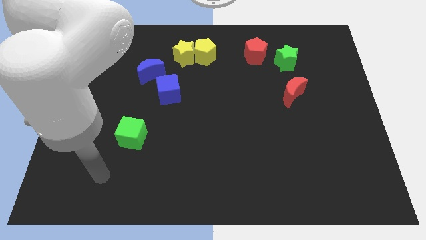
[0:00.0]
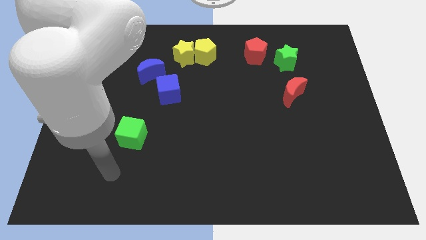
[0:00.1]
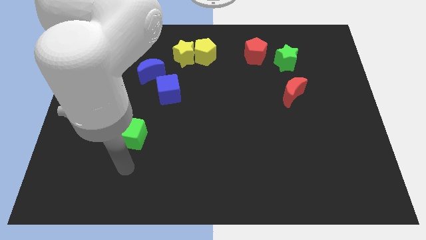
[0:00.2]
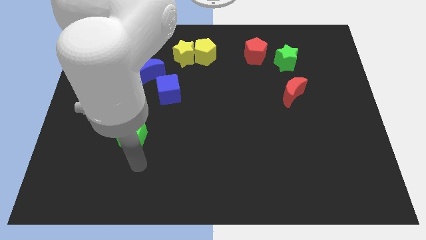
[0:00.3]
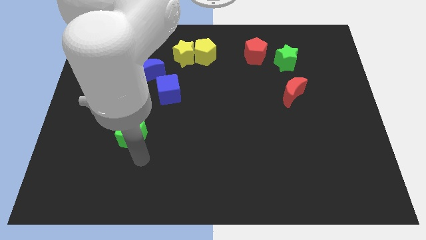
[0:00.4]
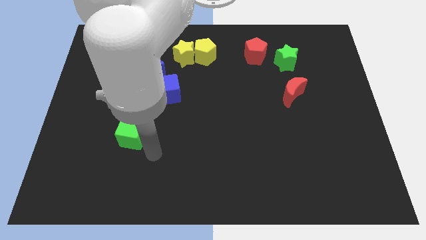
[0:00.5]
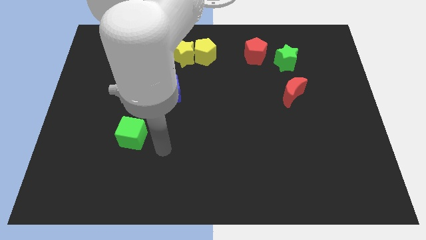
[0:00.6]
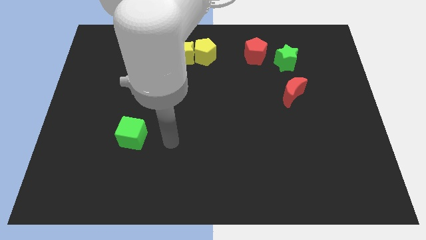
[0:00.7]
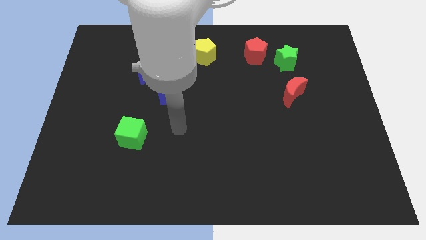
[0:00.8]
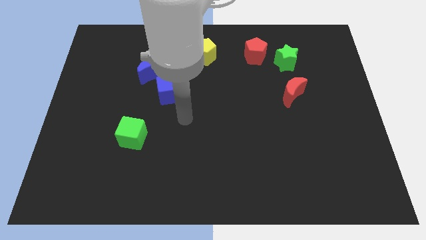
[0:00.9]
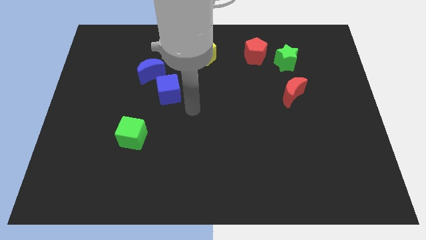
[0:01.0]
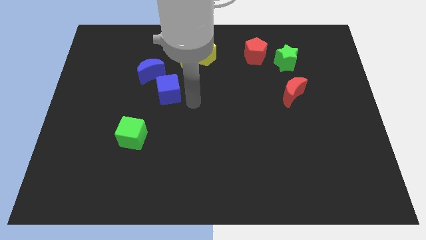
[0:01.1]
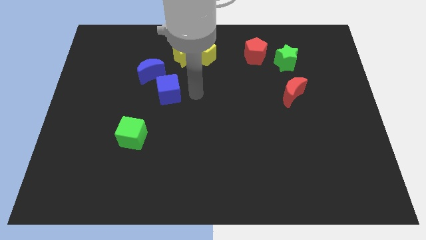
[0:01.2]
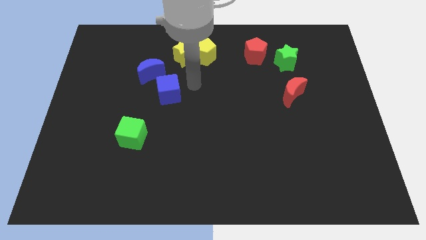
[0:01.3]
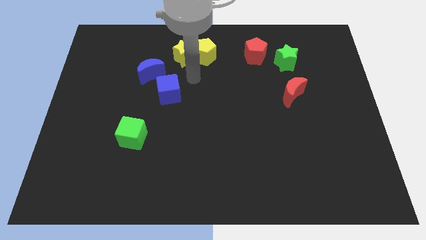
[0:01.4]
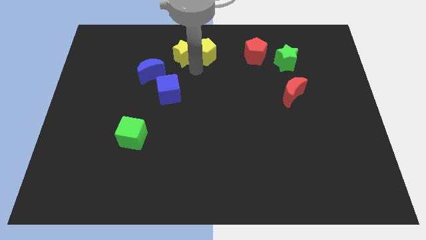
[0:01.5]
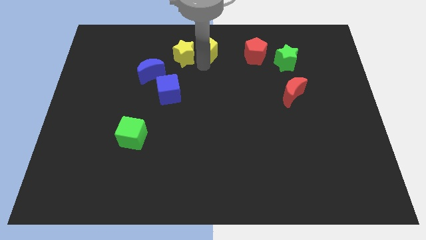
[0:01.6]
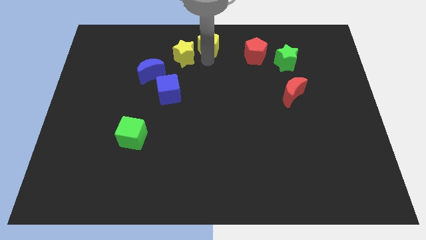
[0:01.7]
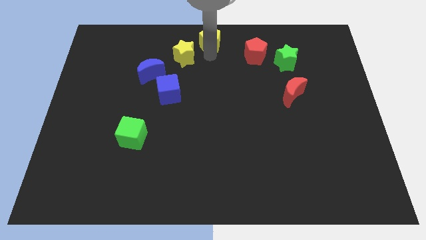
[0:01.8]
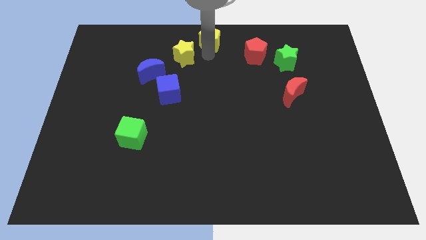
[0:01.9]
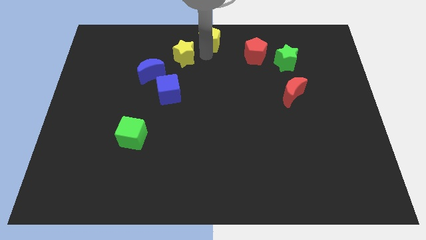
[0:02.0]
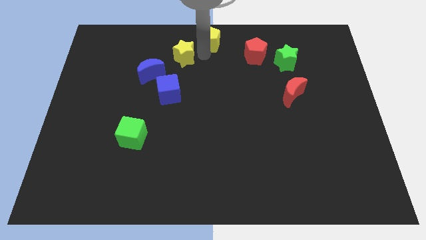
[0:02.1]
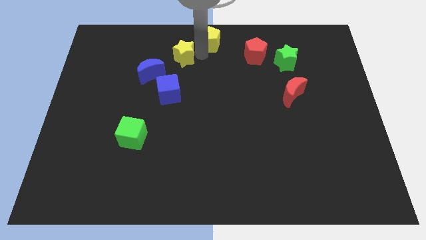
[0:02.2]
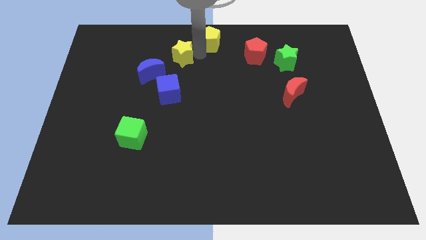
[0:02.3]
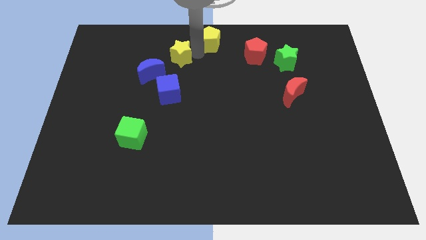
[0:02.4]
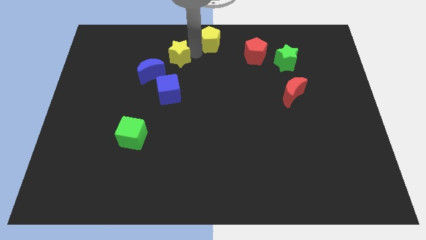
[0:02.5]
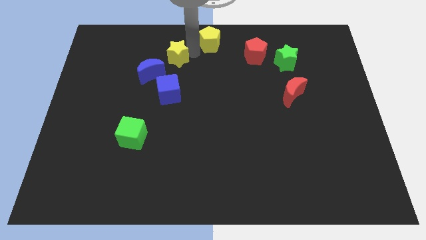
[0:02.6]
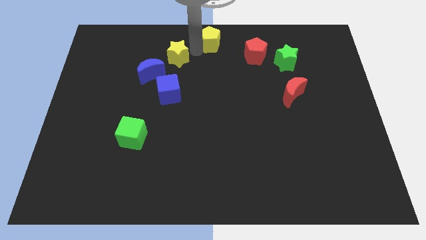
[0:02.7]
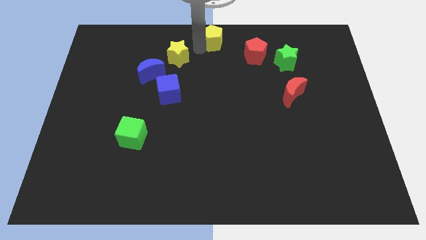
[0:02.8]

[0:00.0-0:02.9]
pull the yellow star apart from the yellow pentagon

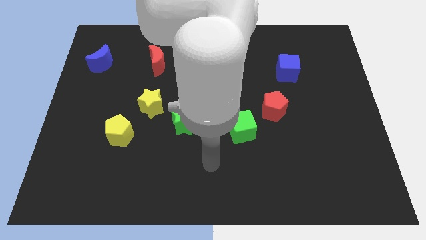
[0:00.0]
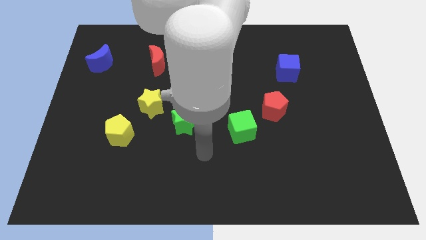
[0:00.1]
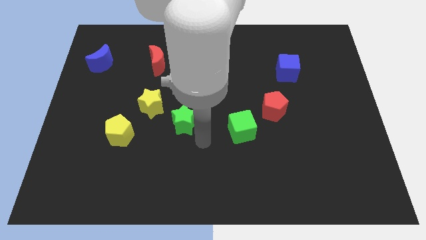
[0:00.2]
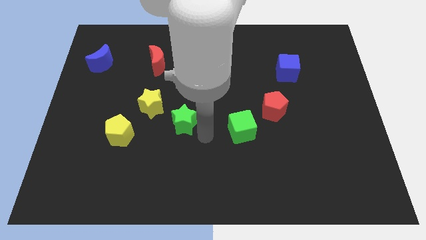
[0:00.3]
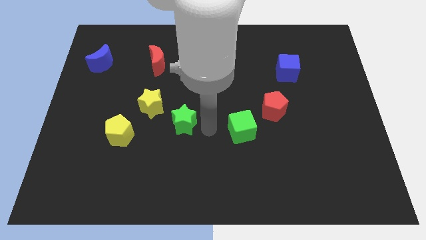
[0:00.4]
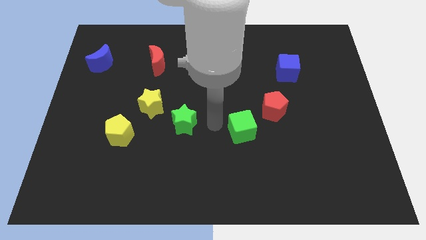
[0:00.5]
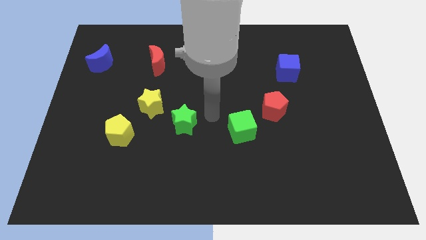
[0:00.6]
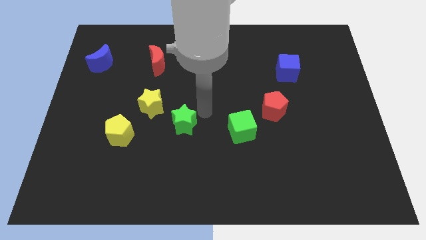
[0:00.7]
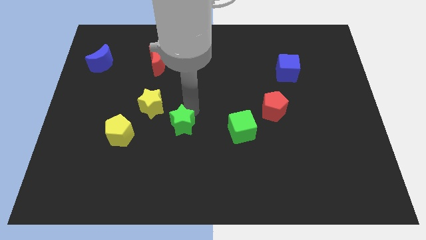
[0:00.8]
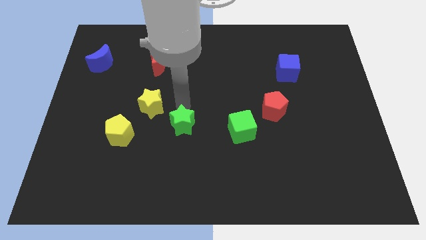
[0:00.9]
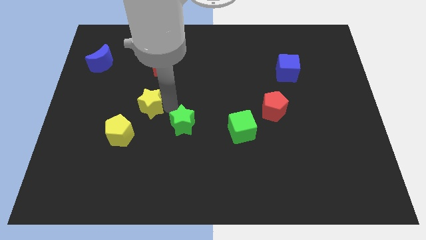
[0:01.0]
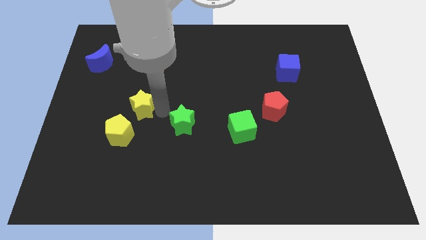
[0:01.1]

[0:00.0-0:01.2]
pull the green star apart from the yellow star

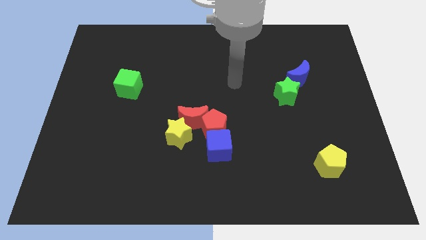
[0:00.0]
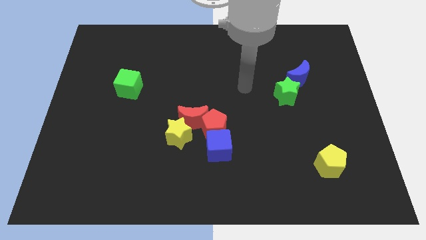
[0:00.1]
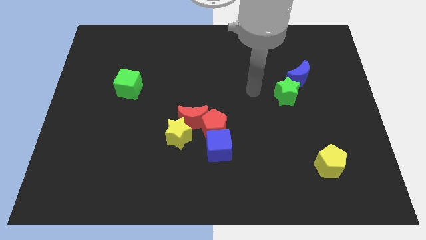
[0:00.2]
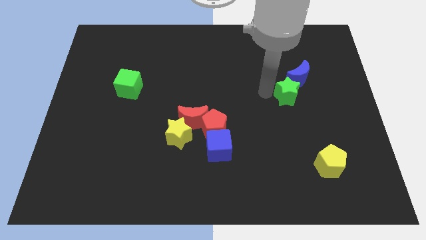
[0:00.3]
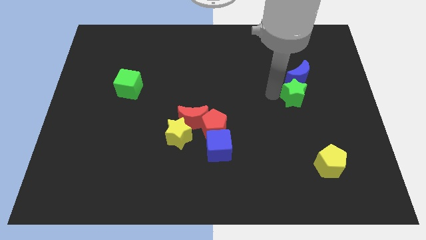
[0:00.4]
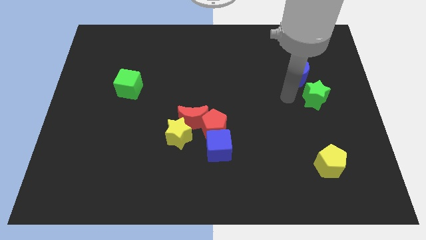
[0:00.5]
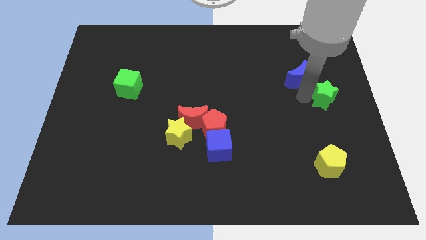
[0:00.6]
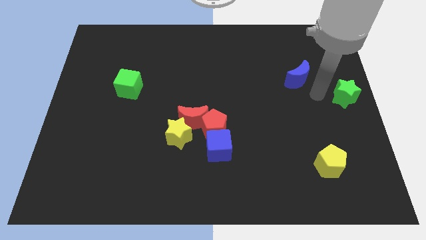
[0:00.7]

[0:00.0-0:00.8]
move the blue moon away from the green star

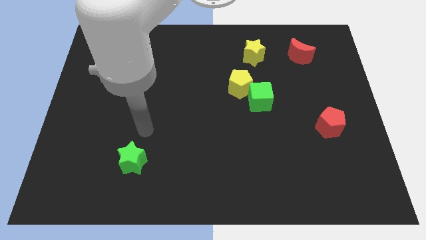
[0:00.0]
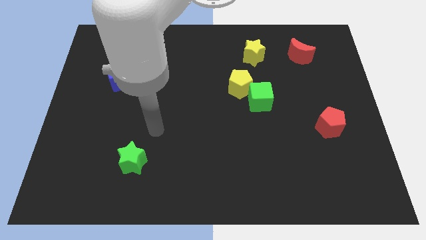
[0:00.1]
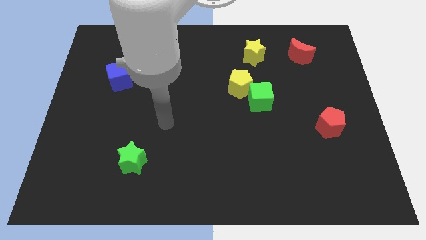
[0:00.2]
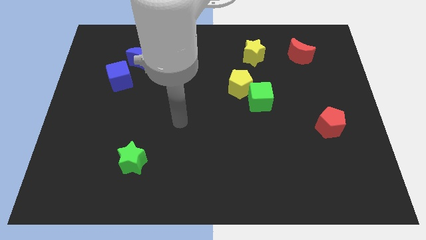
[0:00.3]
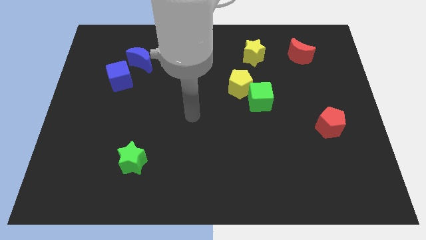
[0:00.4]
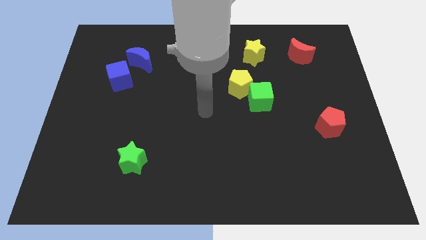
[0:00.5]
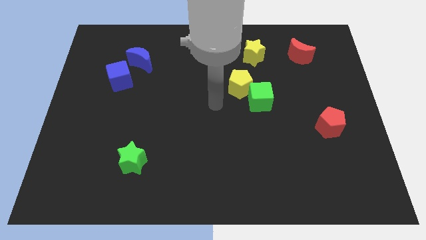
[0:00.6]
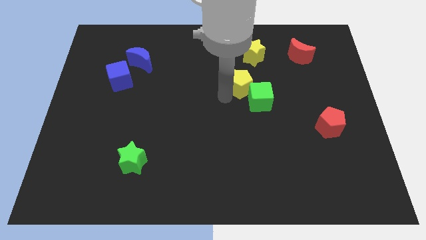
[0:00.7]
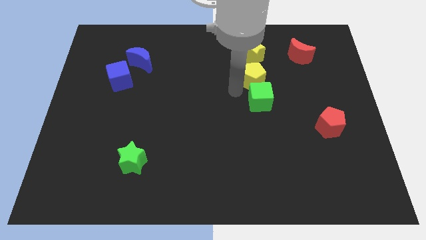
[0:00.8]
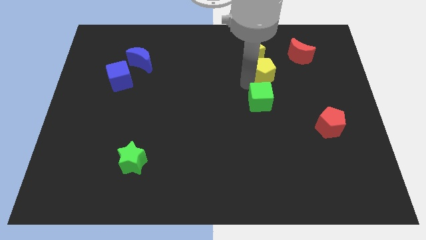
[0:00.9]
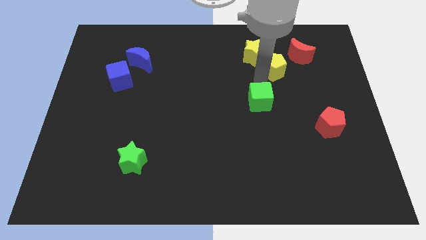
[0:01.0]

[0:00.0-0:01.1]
move the green cube away from the yellow pentagon

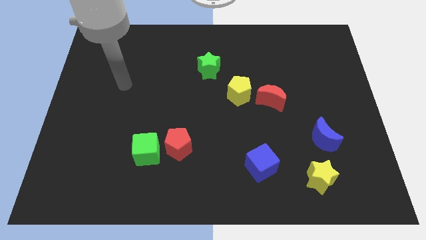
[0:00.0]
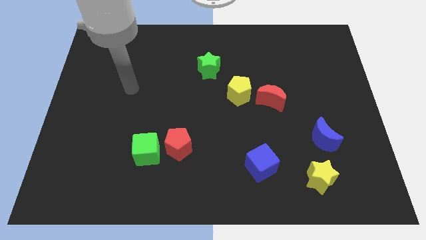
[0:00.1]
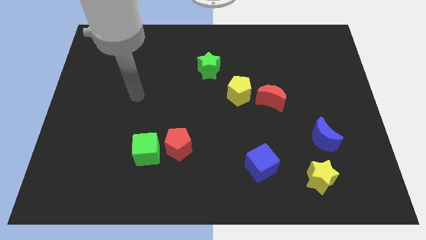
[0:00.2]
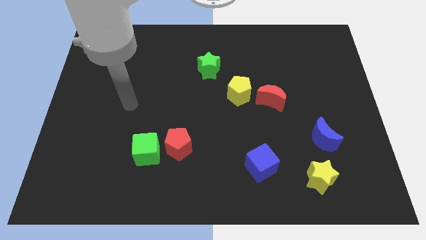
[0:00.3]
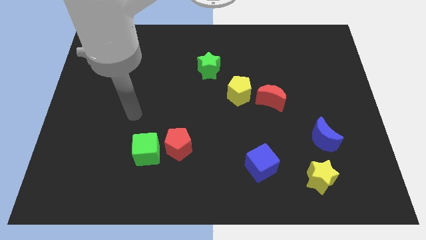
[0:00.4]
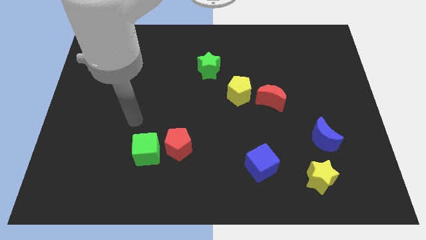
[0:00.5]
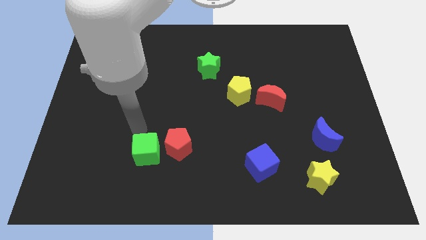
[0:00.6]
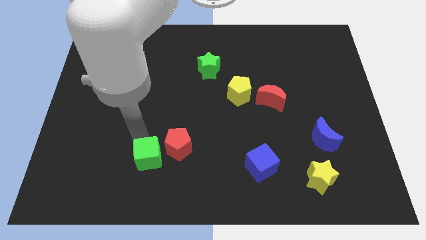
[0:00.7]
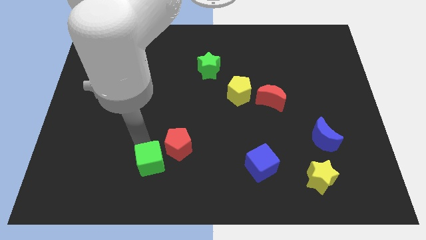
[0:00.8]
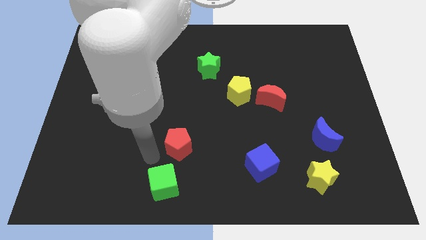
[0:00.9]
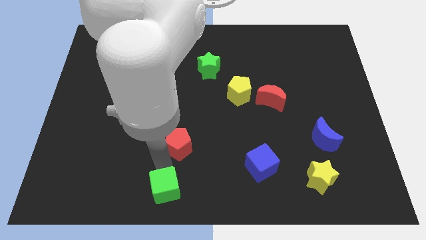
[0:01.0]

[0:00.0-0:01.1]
move the red pentagon away from the green cube

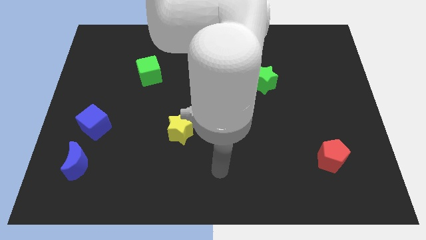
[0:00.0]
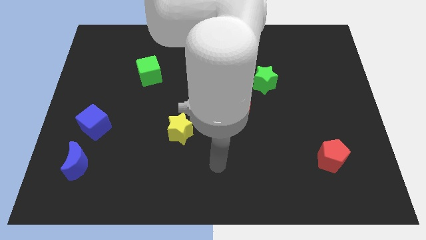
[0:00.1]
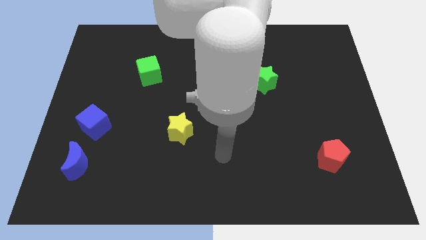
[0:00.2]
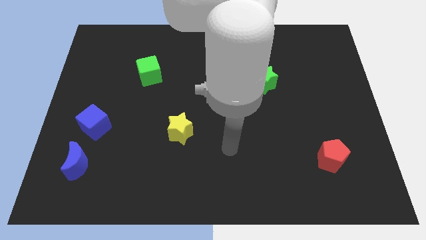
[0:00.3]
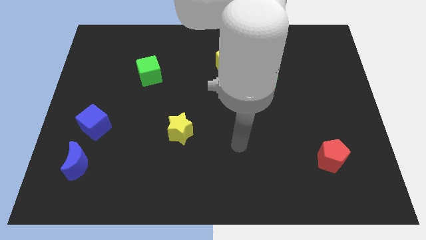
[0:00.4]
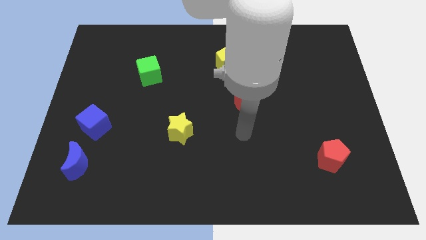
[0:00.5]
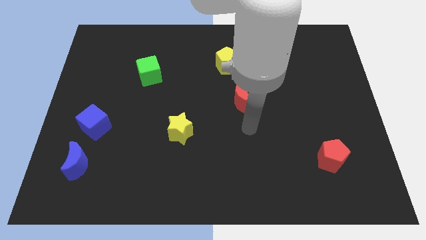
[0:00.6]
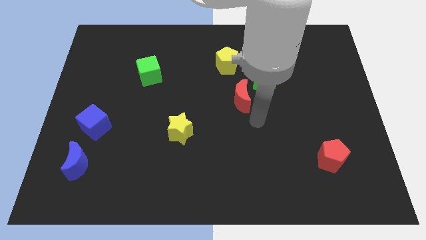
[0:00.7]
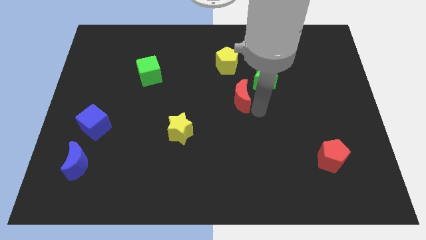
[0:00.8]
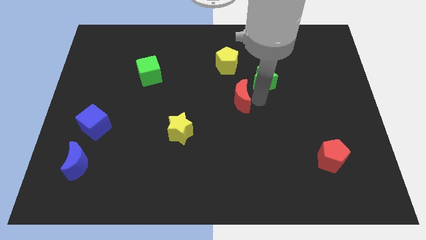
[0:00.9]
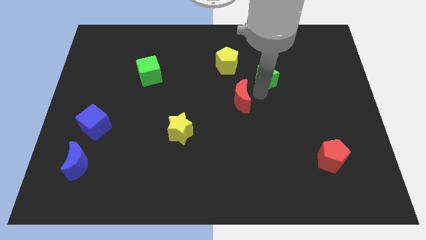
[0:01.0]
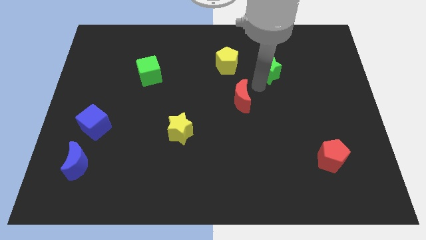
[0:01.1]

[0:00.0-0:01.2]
move the red moon away from the green star

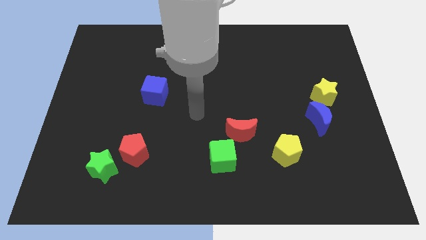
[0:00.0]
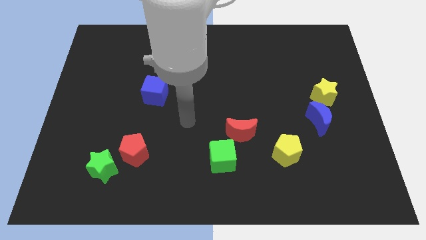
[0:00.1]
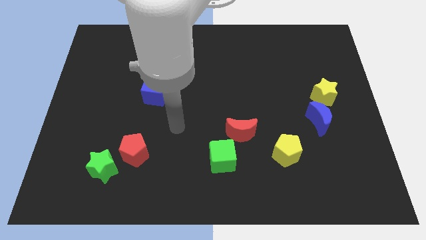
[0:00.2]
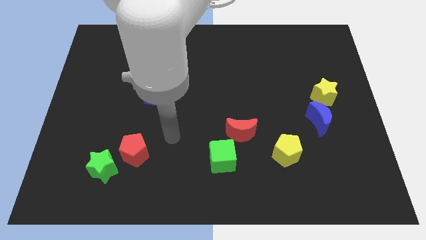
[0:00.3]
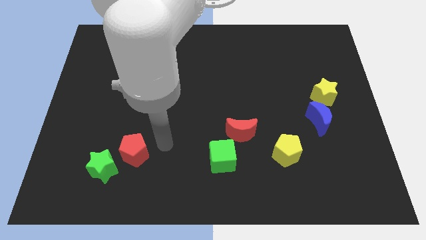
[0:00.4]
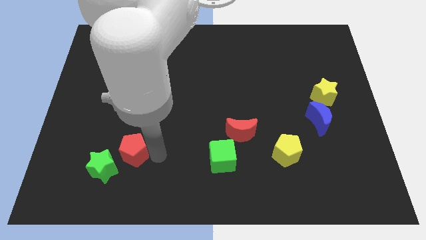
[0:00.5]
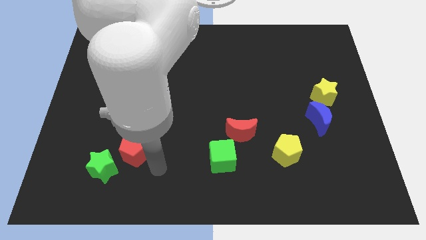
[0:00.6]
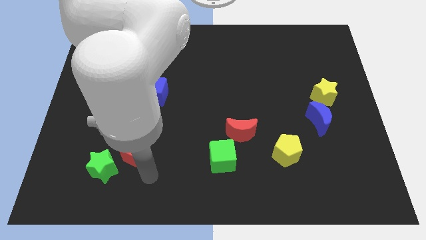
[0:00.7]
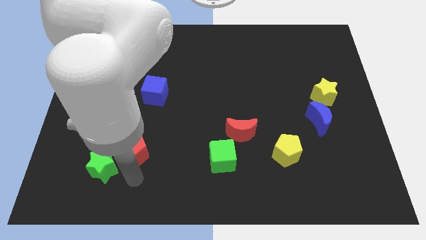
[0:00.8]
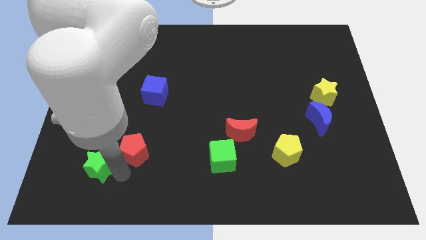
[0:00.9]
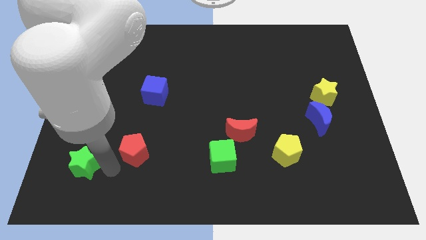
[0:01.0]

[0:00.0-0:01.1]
separate the red pentagon from the green star
